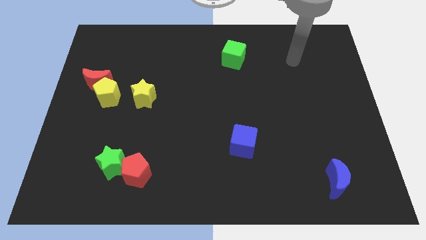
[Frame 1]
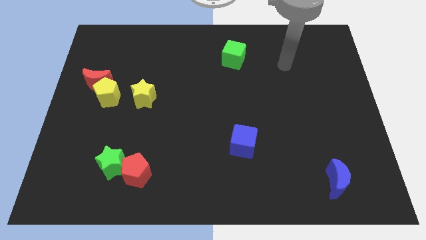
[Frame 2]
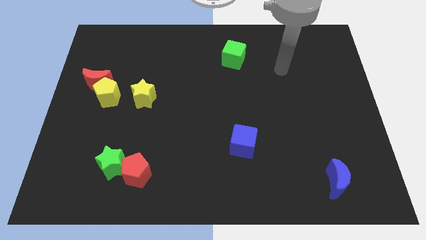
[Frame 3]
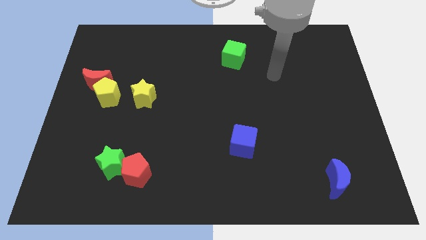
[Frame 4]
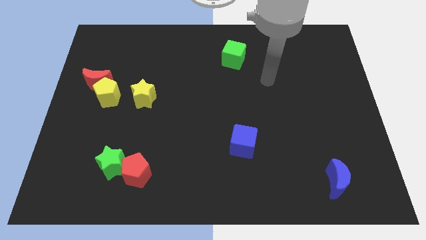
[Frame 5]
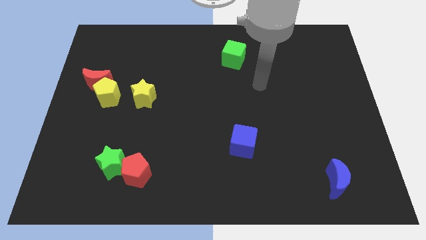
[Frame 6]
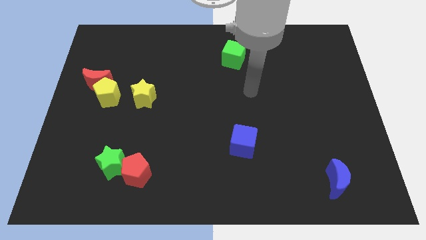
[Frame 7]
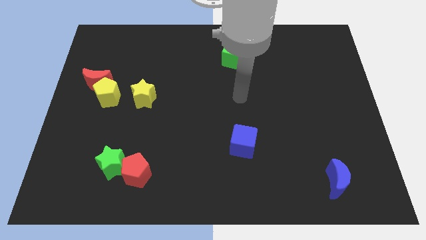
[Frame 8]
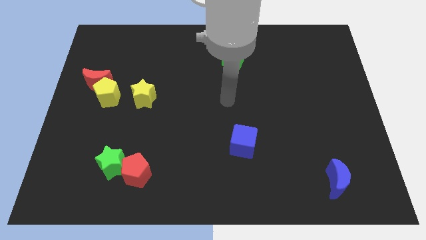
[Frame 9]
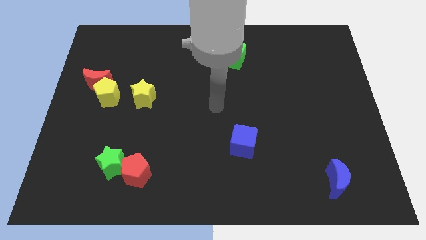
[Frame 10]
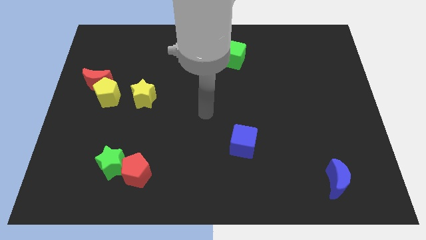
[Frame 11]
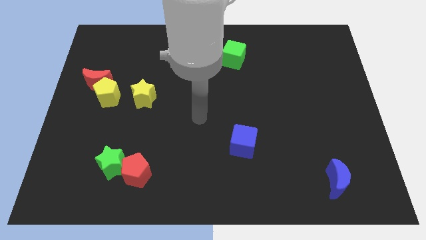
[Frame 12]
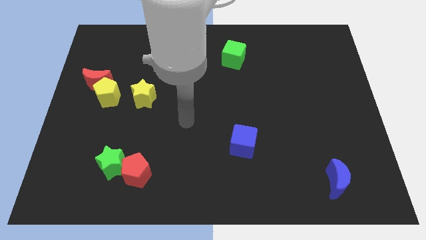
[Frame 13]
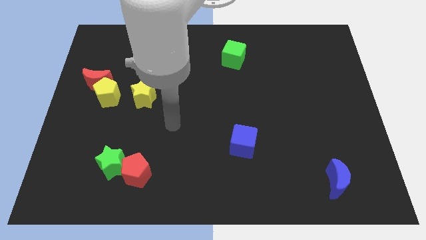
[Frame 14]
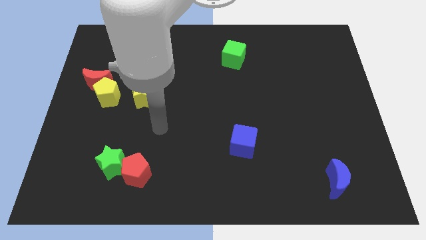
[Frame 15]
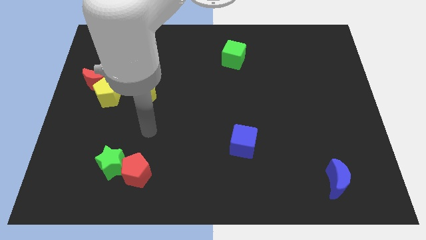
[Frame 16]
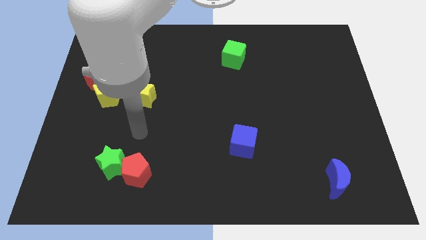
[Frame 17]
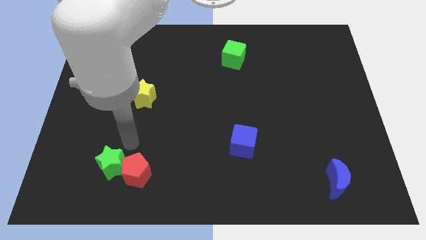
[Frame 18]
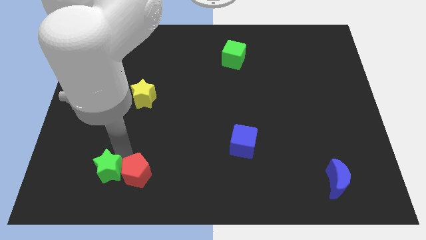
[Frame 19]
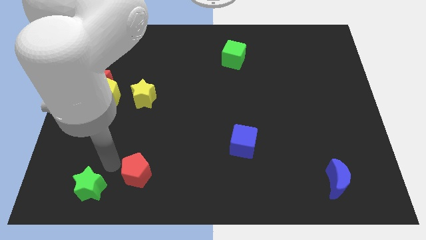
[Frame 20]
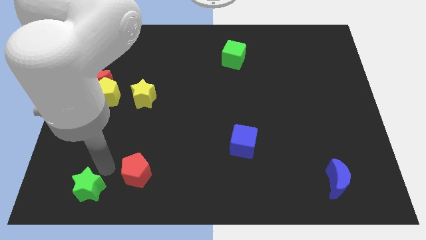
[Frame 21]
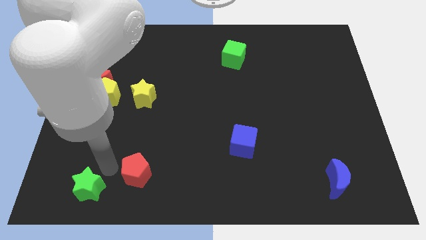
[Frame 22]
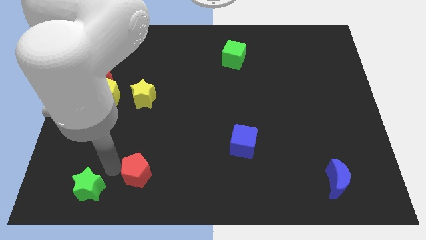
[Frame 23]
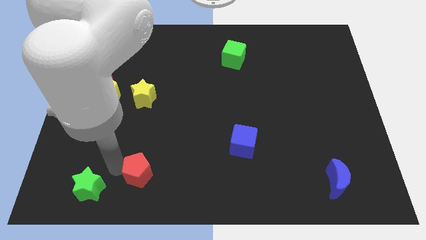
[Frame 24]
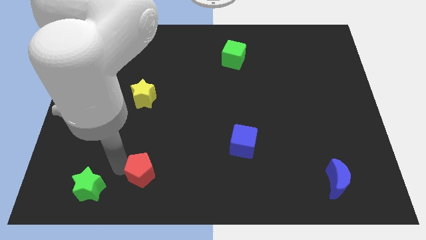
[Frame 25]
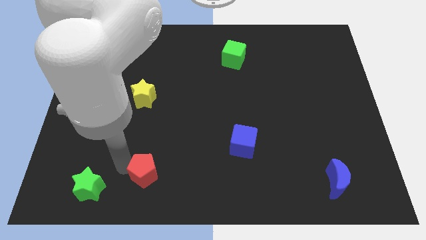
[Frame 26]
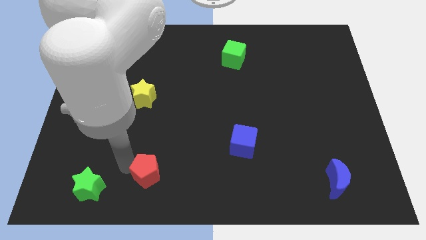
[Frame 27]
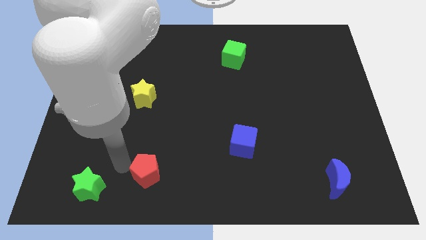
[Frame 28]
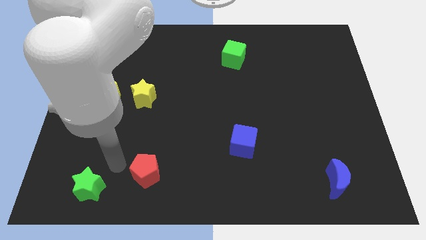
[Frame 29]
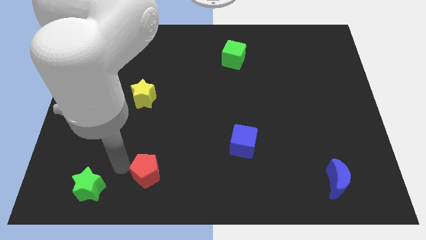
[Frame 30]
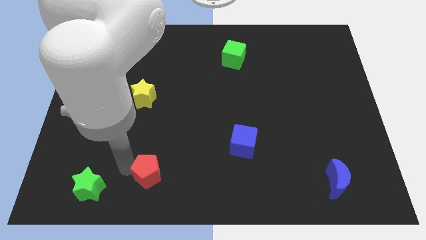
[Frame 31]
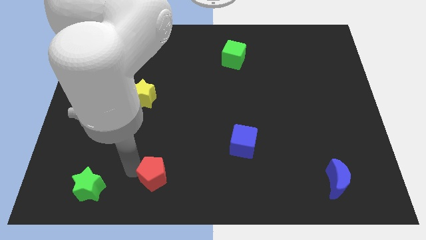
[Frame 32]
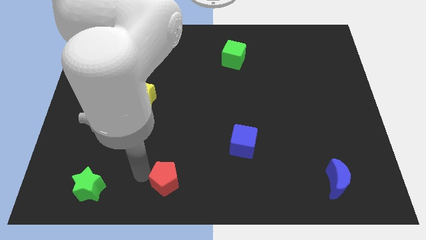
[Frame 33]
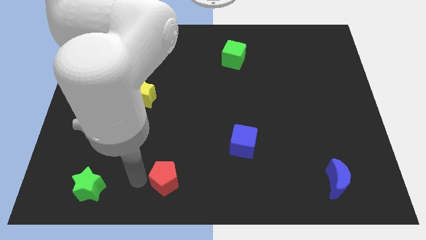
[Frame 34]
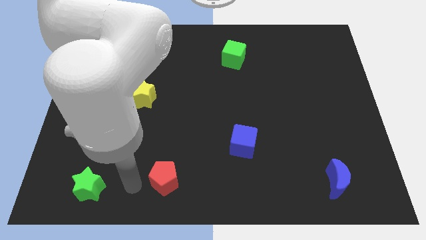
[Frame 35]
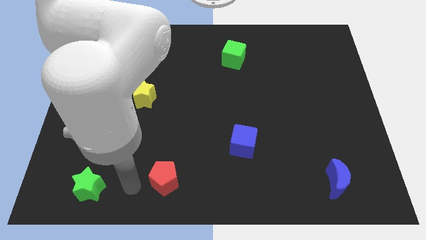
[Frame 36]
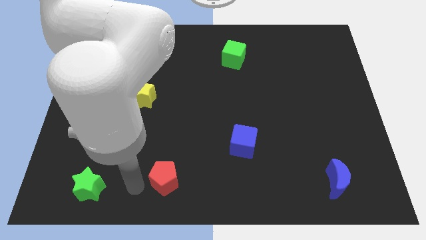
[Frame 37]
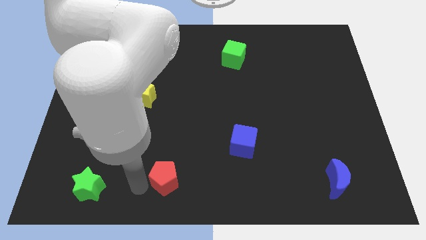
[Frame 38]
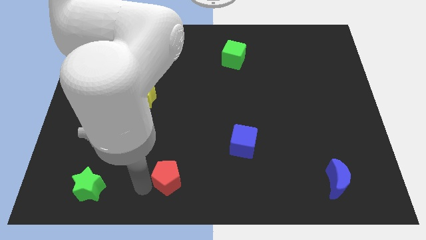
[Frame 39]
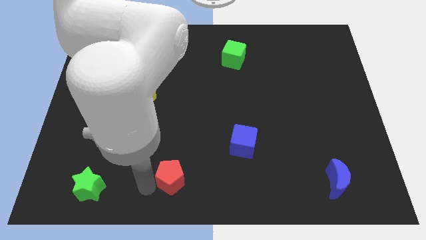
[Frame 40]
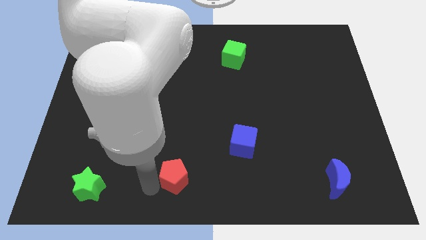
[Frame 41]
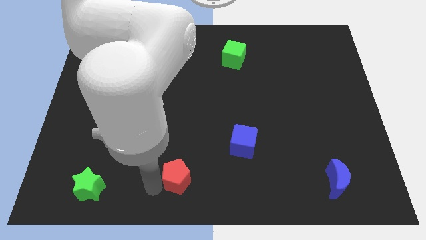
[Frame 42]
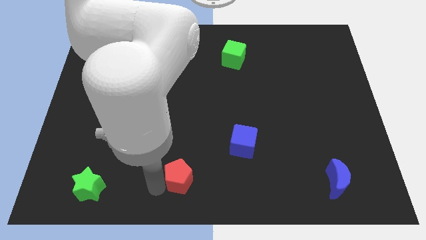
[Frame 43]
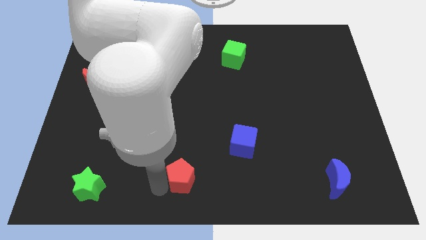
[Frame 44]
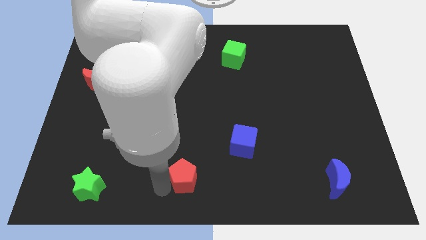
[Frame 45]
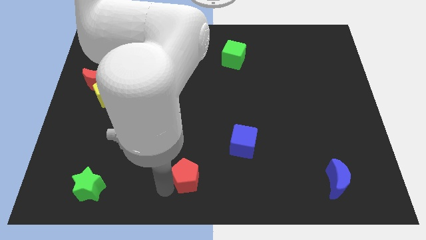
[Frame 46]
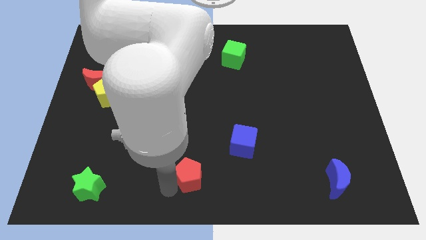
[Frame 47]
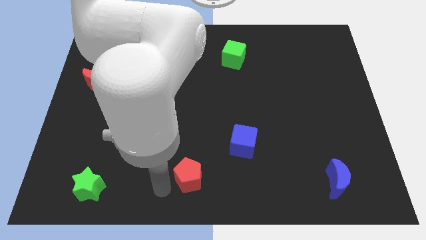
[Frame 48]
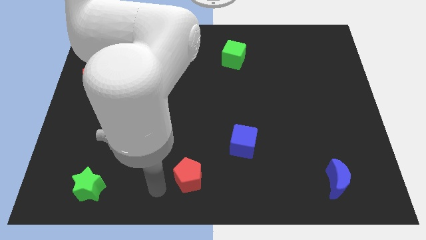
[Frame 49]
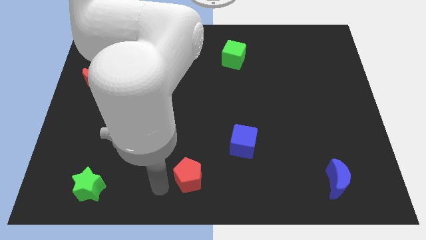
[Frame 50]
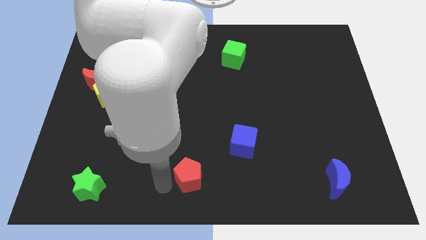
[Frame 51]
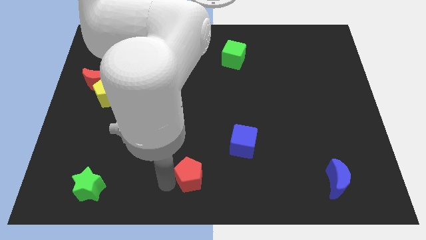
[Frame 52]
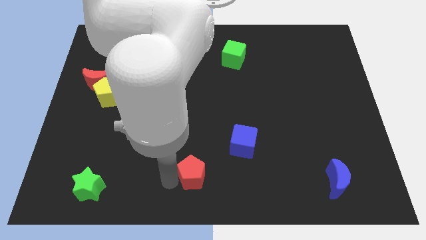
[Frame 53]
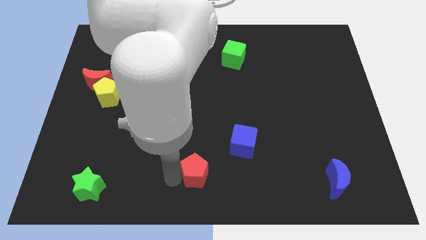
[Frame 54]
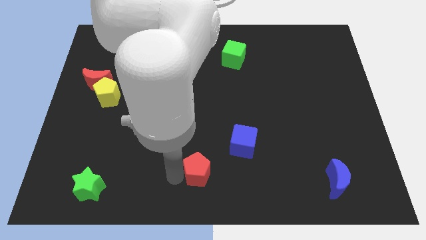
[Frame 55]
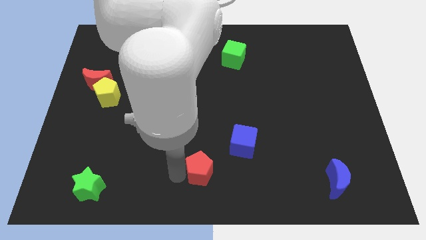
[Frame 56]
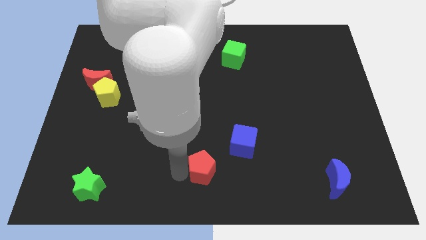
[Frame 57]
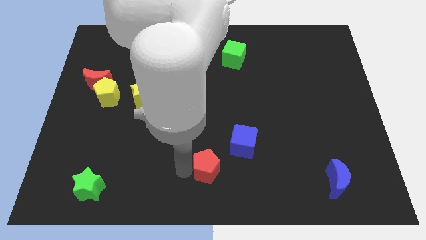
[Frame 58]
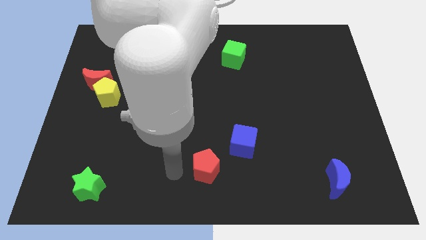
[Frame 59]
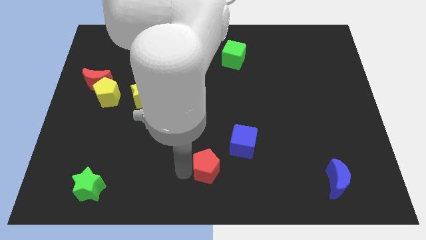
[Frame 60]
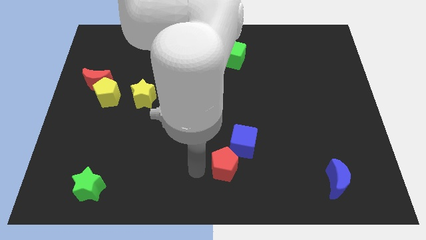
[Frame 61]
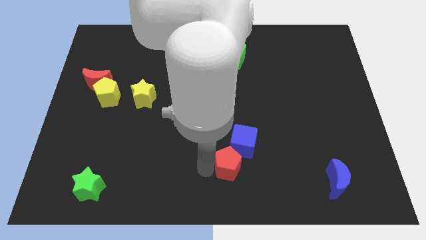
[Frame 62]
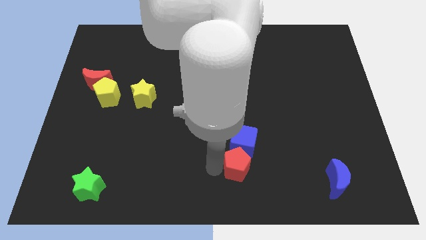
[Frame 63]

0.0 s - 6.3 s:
slide the red pentagon to the right
